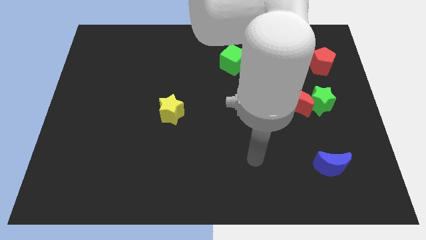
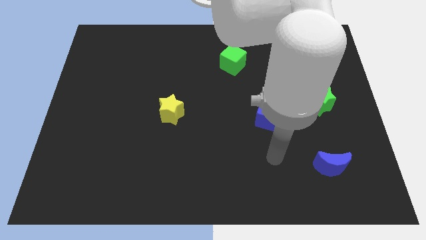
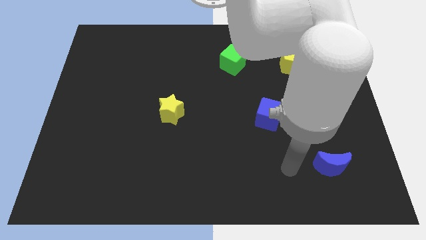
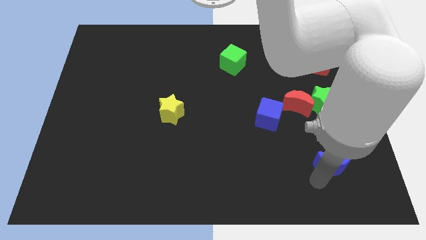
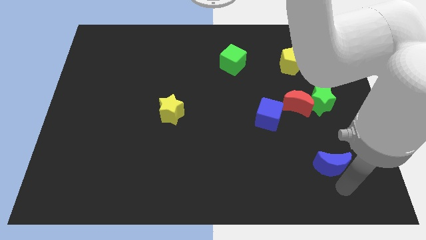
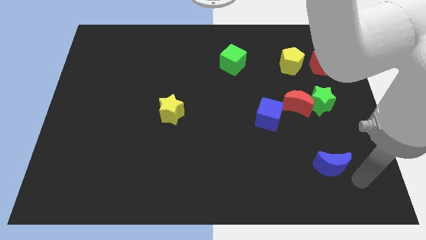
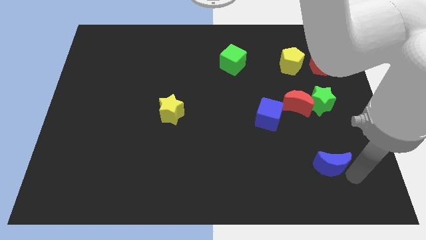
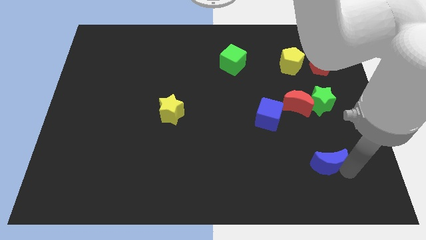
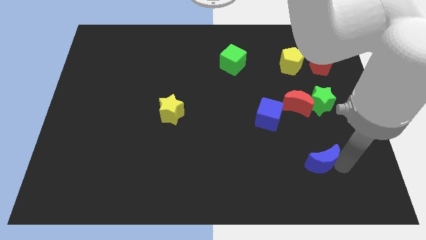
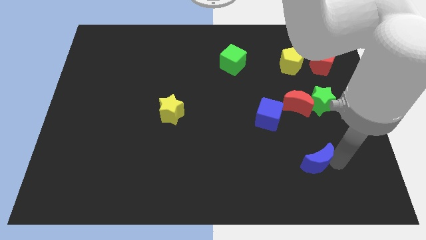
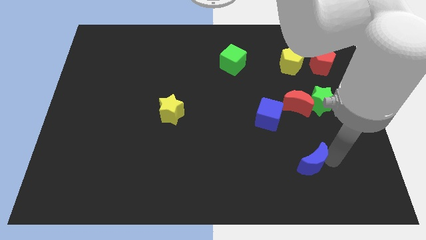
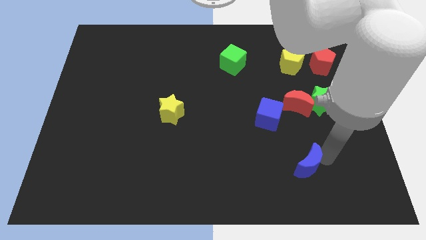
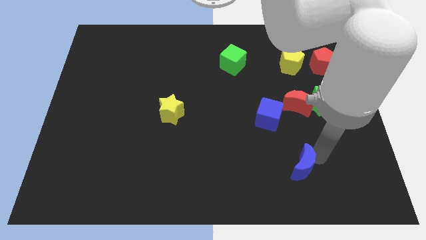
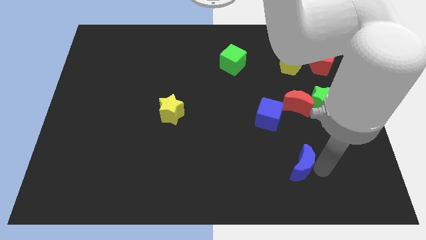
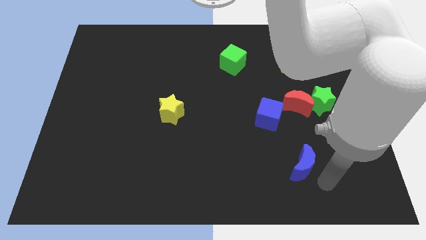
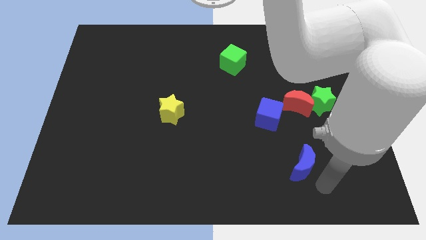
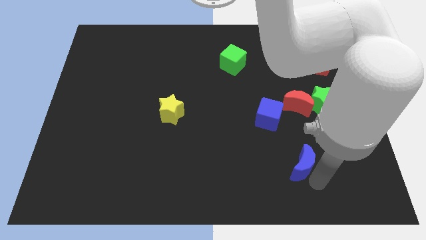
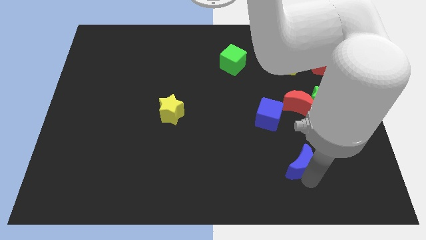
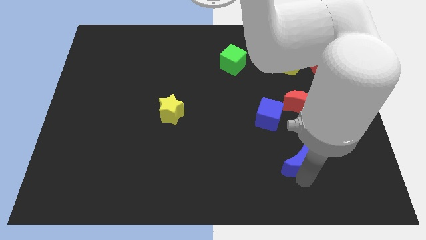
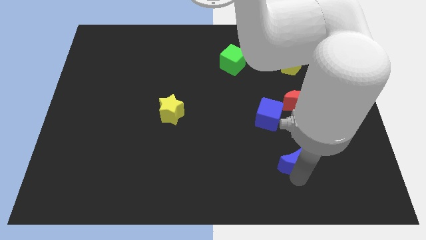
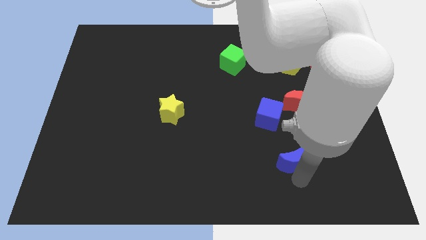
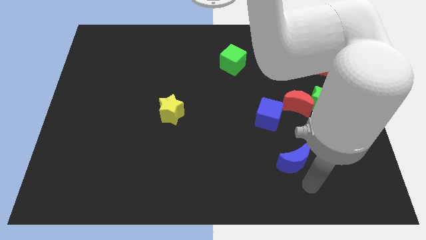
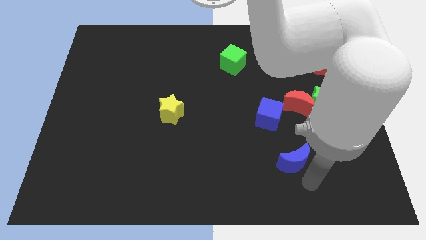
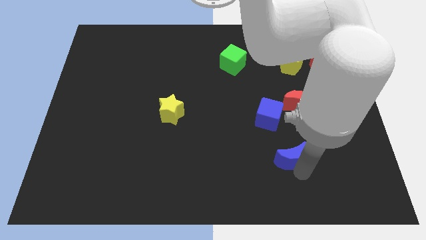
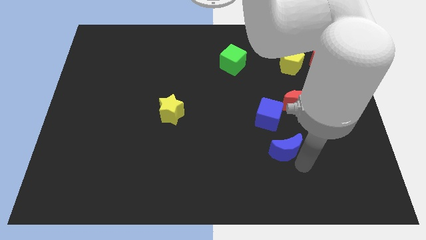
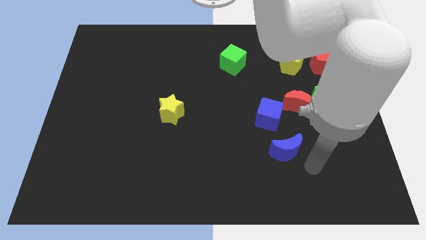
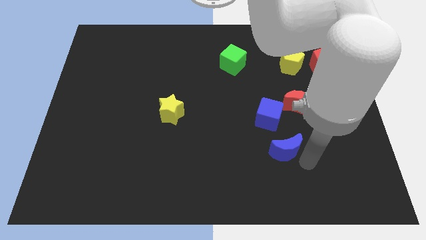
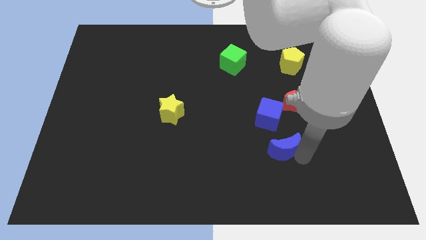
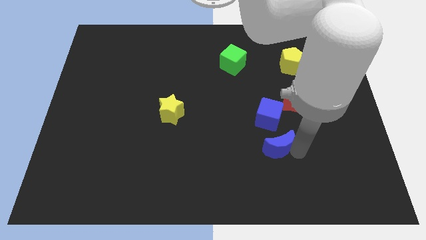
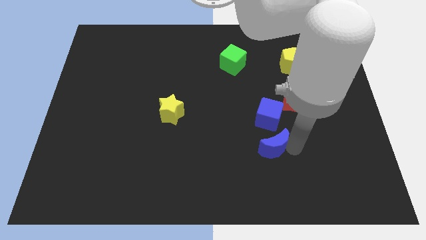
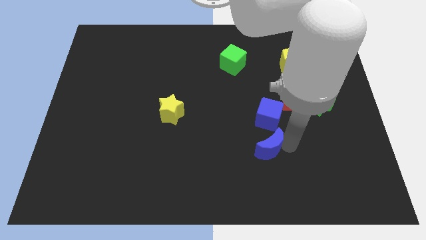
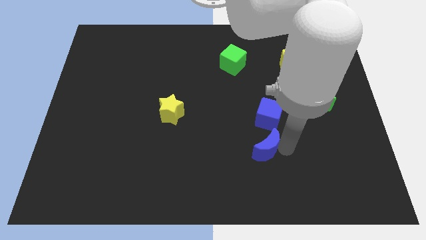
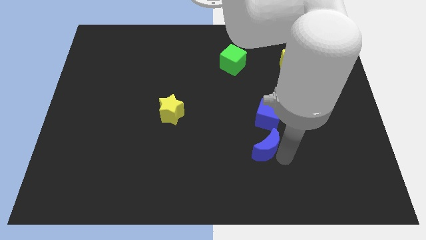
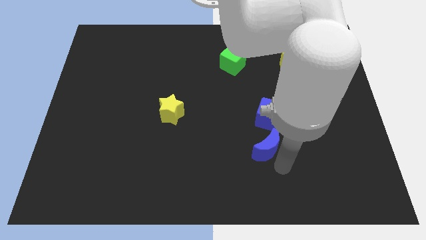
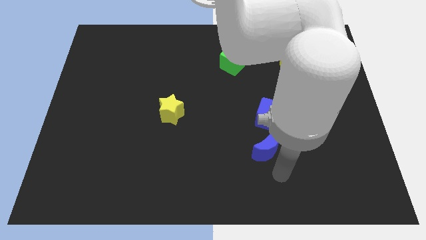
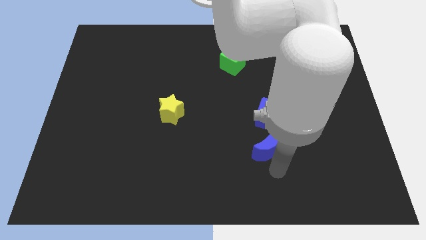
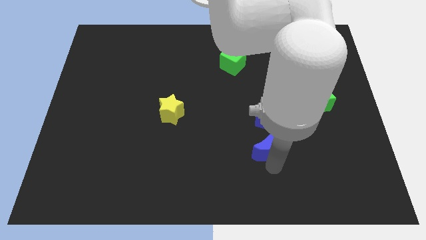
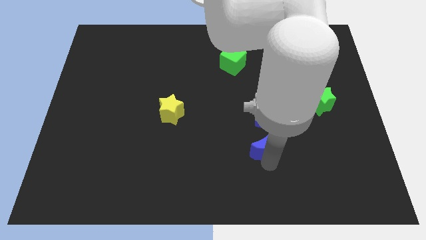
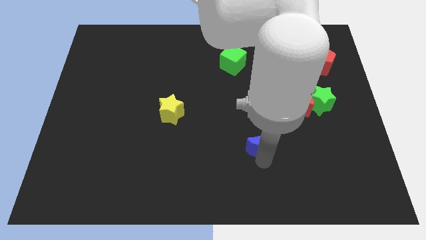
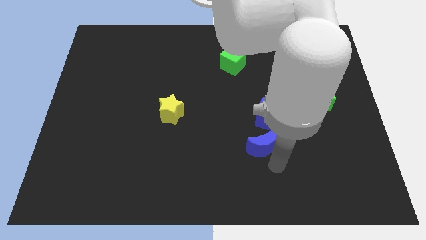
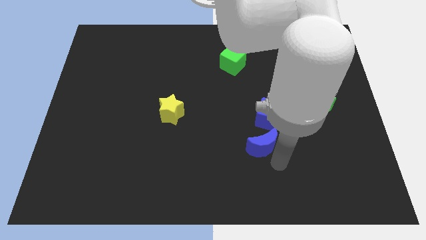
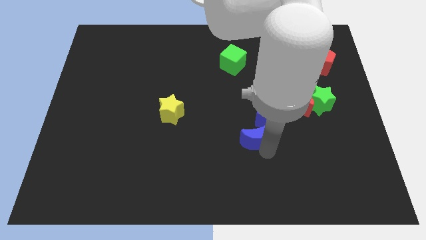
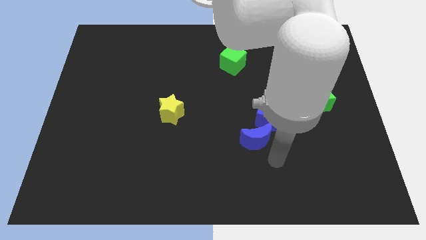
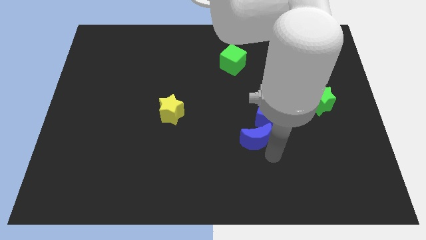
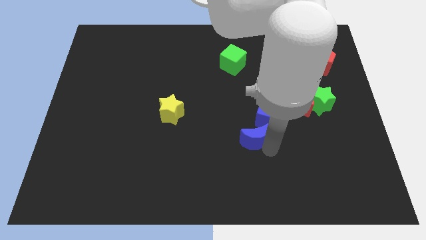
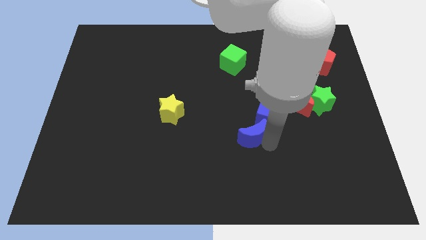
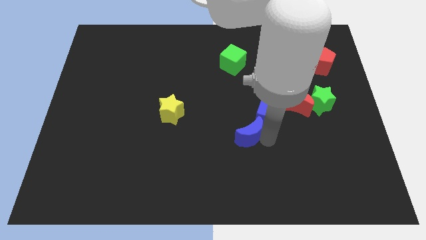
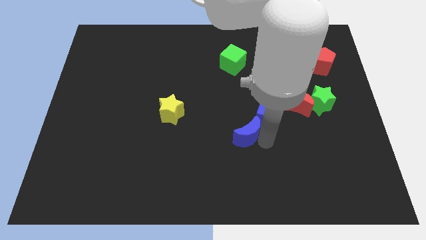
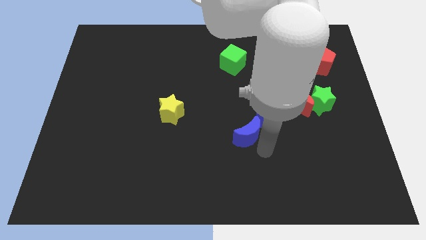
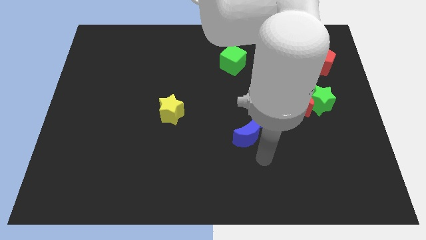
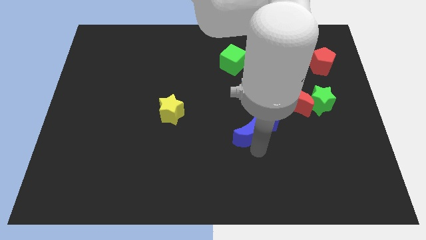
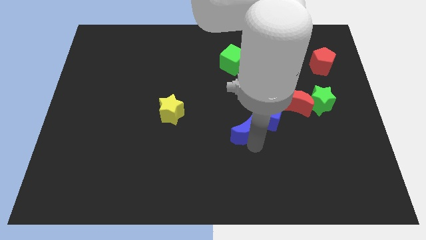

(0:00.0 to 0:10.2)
move the blue moon to the left side of the blue cube

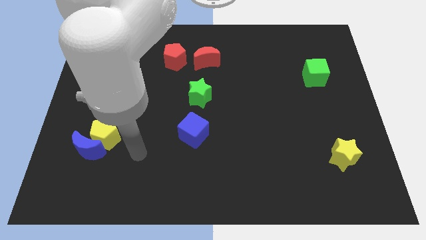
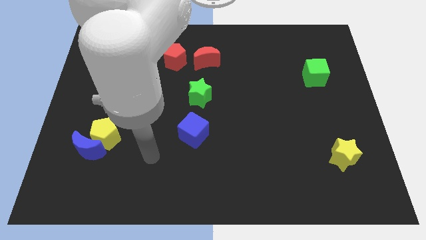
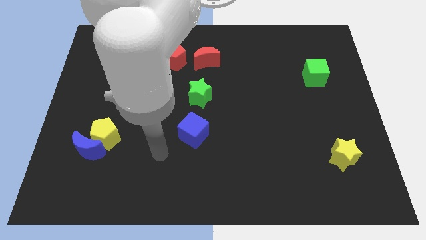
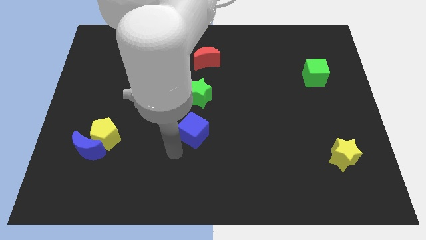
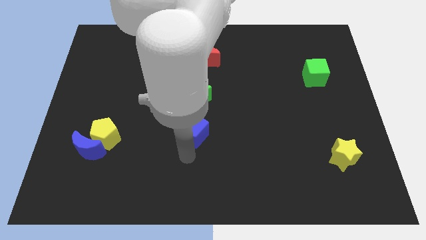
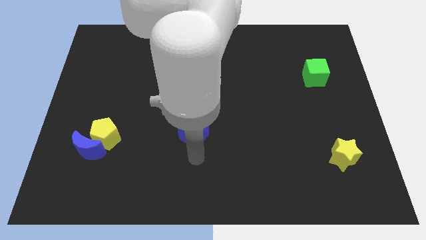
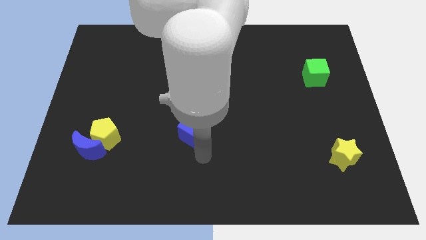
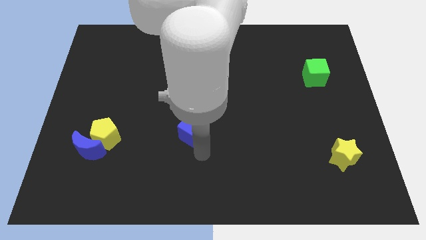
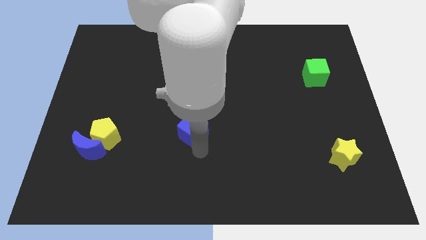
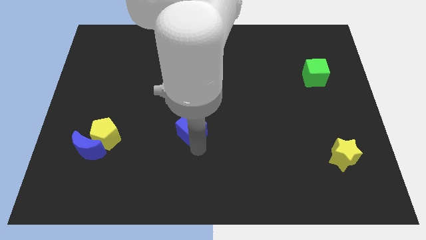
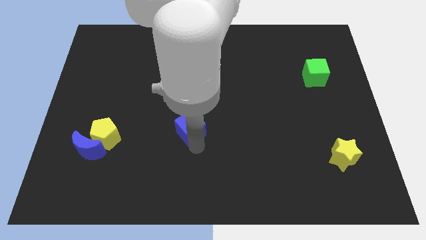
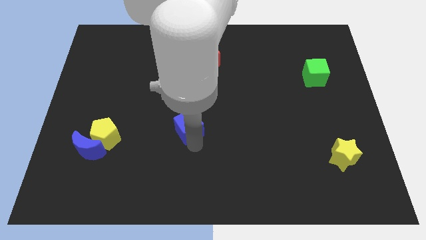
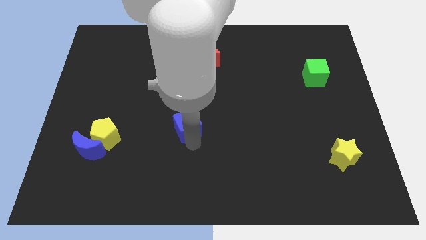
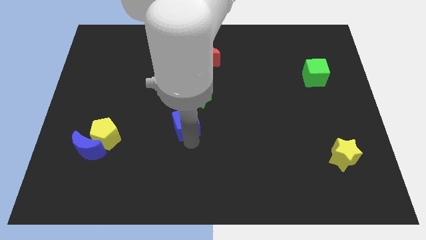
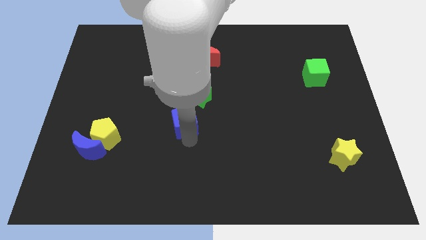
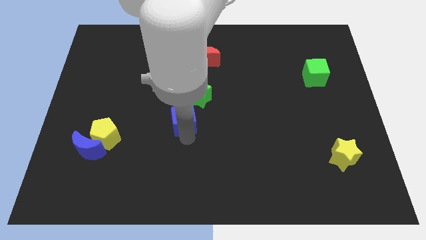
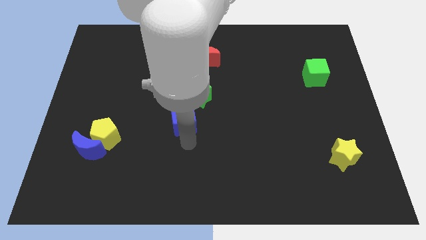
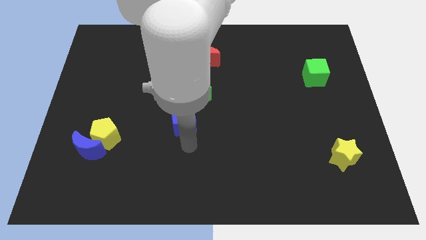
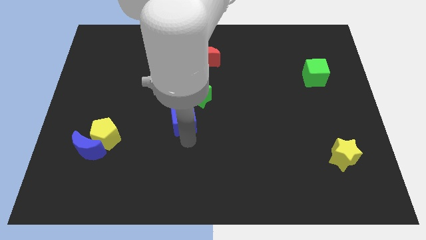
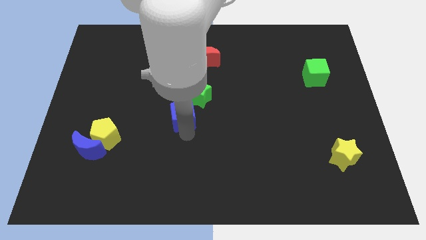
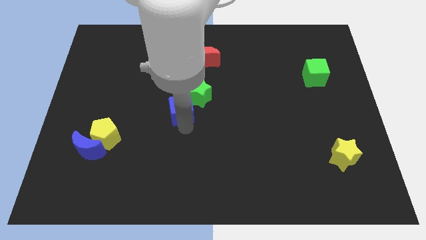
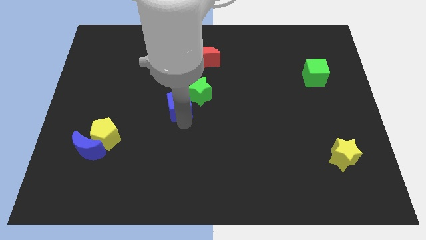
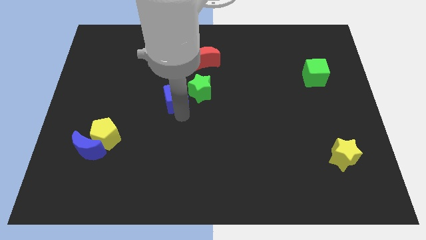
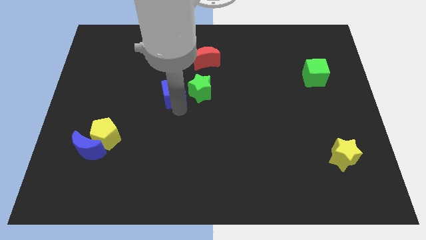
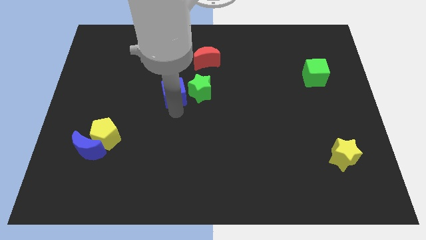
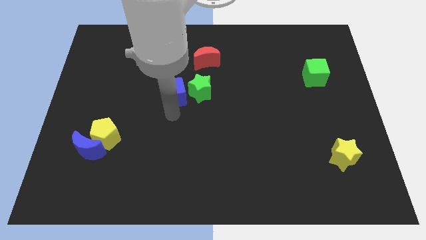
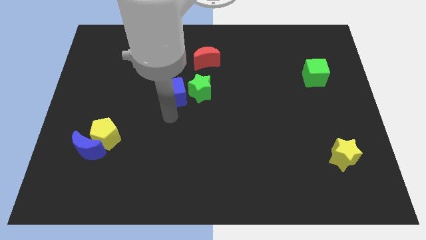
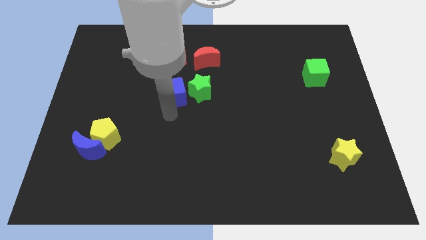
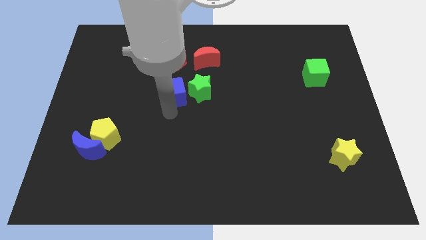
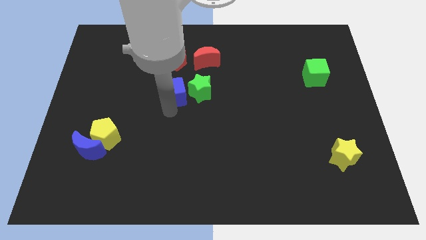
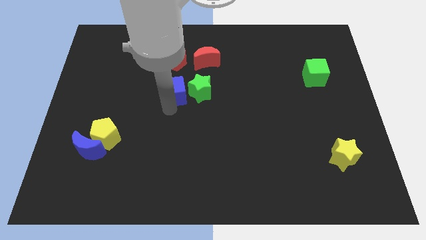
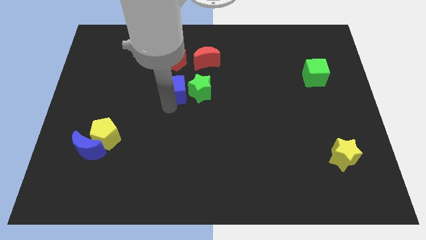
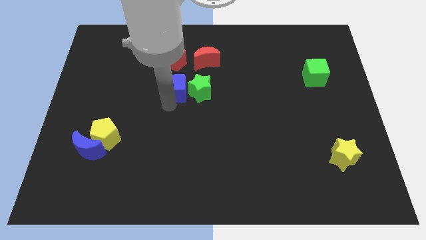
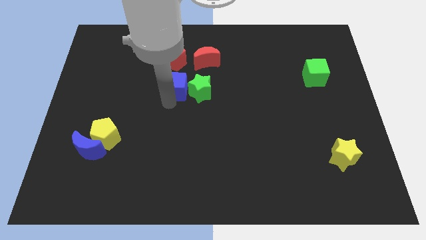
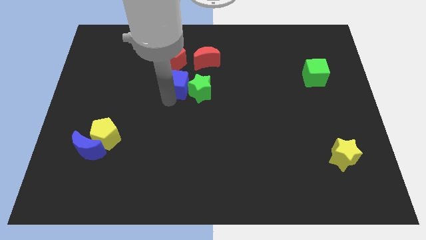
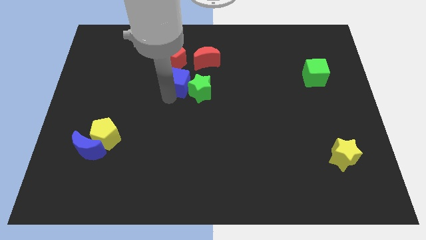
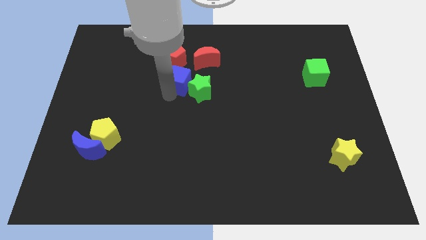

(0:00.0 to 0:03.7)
put the blue cube to the bottom right of the red pentagon
